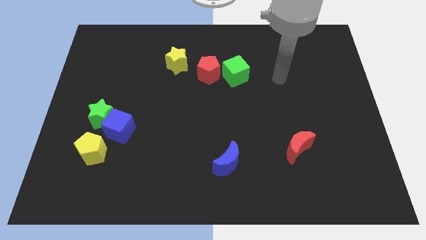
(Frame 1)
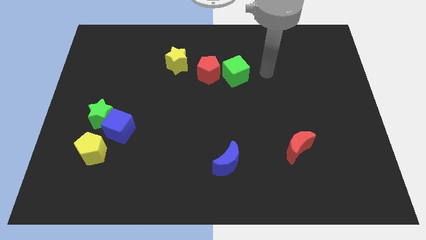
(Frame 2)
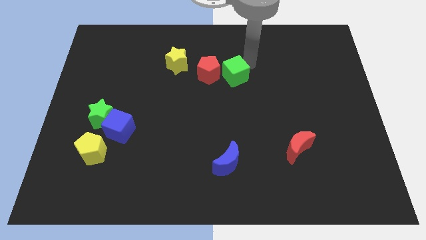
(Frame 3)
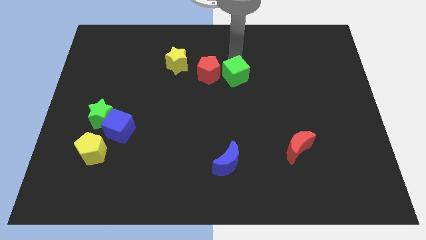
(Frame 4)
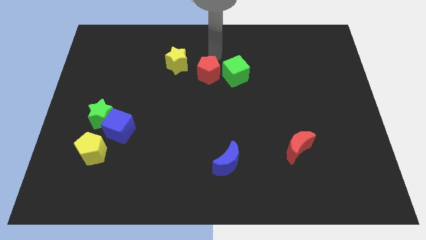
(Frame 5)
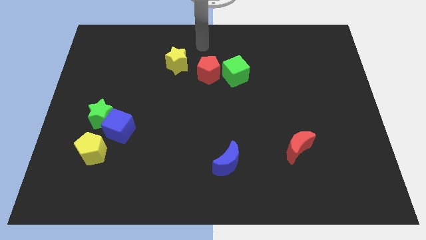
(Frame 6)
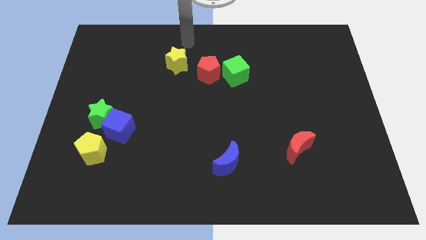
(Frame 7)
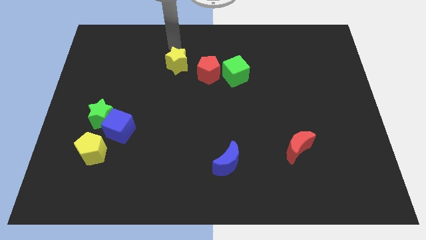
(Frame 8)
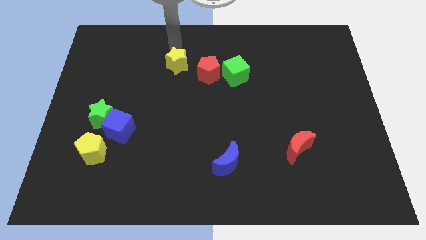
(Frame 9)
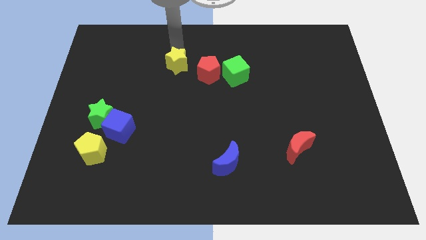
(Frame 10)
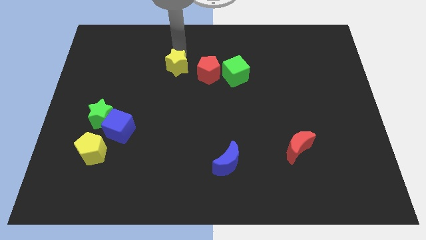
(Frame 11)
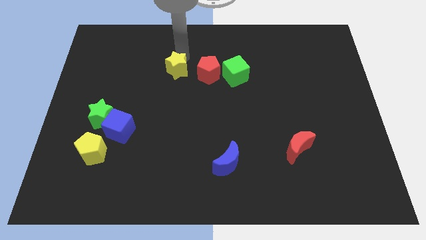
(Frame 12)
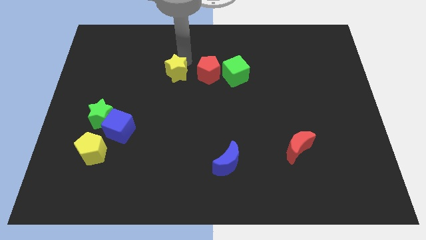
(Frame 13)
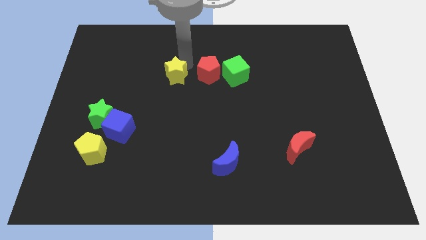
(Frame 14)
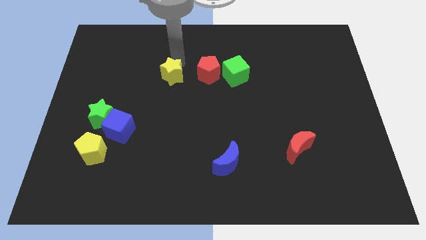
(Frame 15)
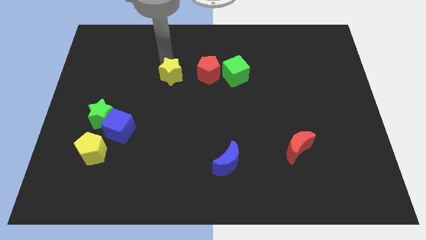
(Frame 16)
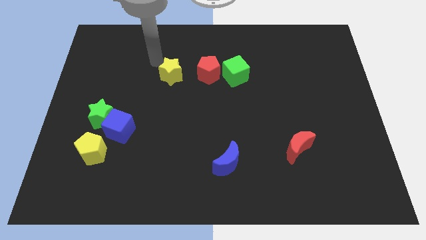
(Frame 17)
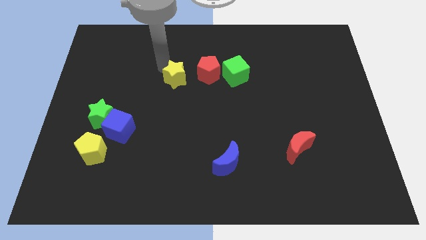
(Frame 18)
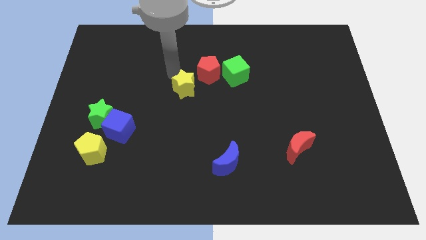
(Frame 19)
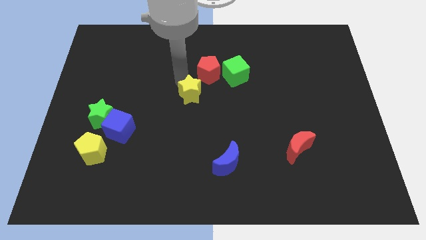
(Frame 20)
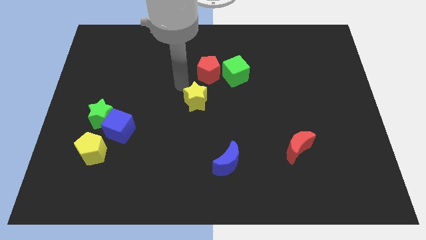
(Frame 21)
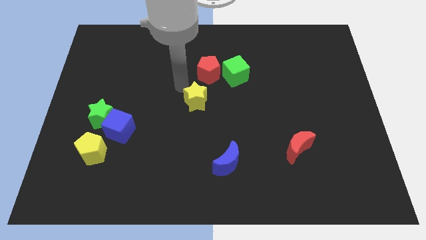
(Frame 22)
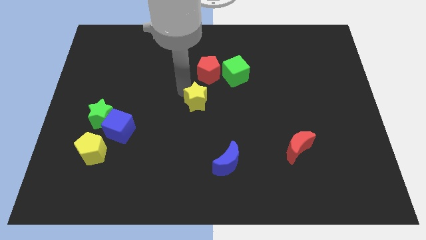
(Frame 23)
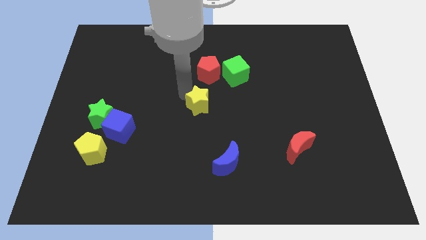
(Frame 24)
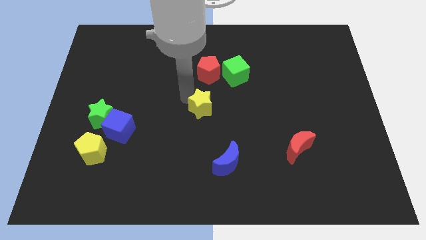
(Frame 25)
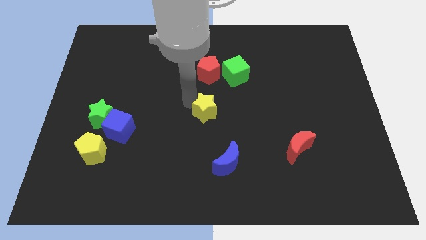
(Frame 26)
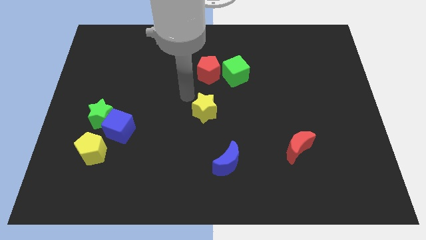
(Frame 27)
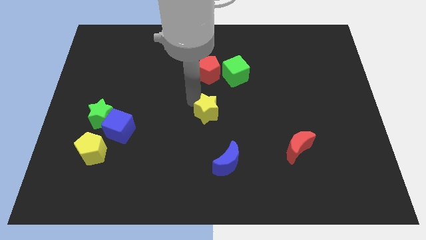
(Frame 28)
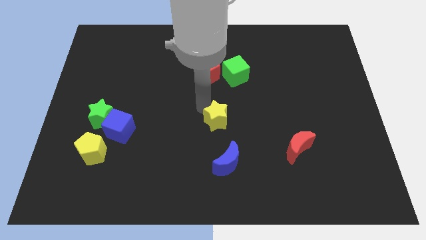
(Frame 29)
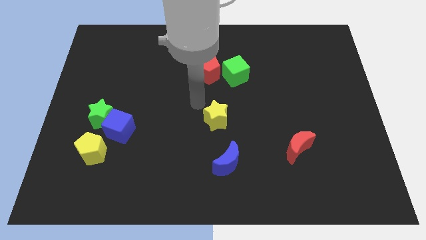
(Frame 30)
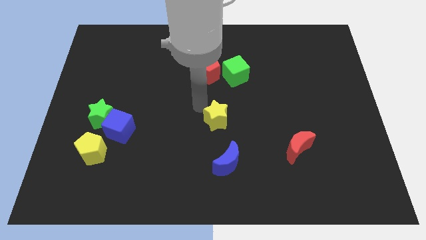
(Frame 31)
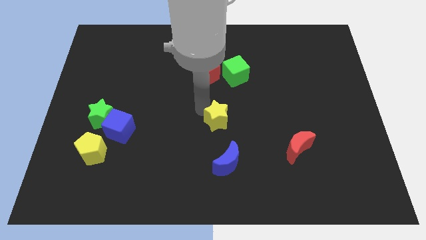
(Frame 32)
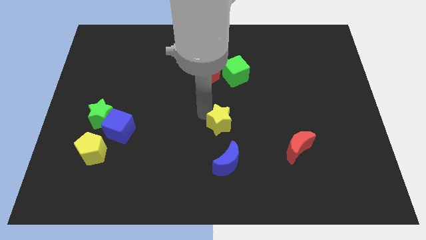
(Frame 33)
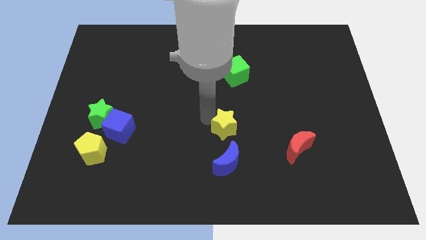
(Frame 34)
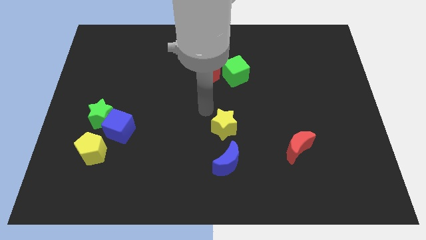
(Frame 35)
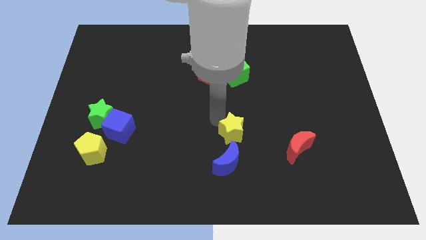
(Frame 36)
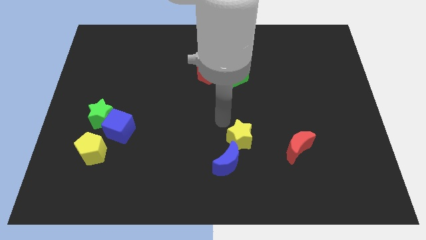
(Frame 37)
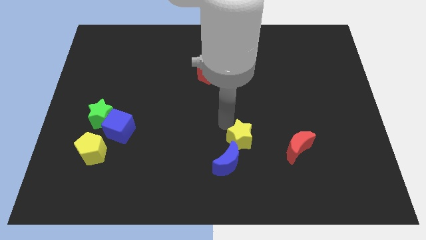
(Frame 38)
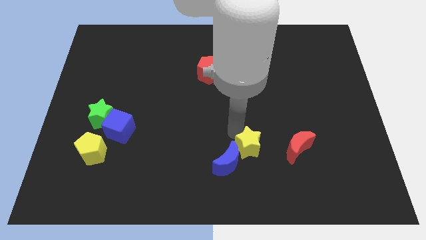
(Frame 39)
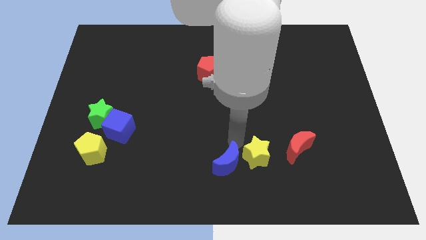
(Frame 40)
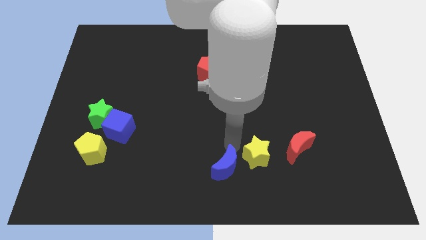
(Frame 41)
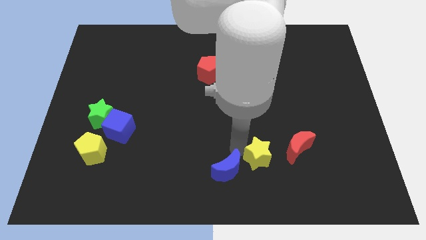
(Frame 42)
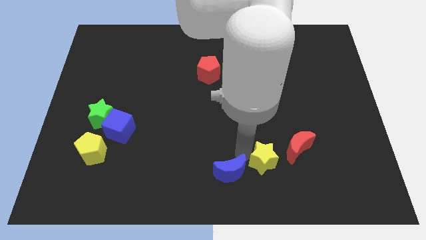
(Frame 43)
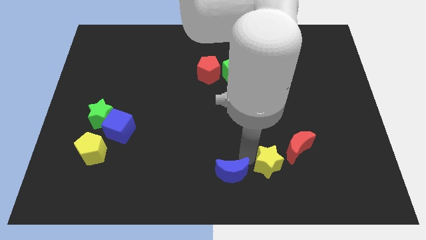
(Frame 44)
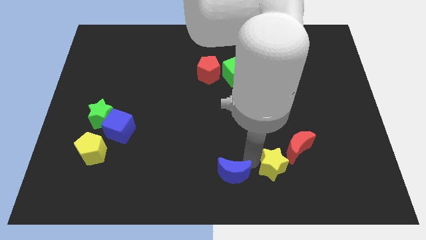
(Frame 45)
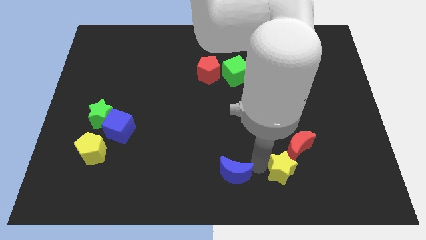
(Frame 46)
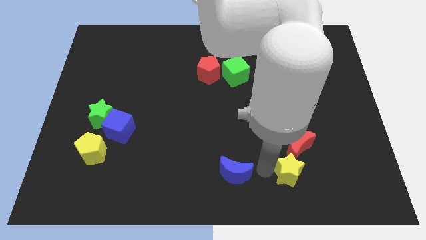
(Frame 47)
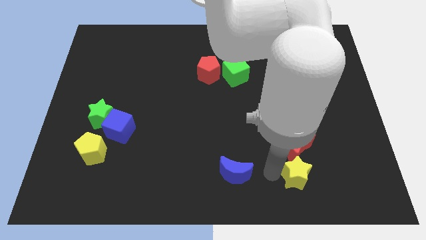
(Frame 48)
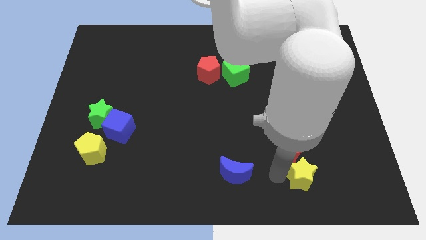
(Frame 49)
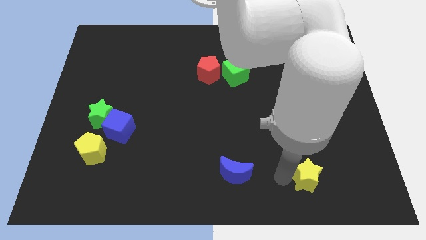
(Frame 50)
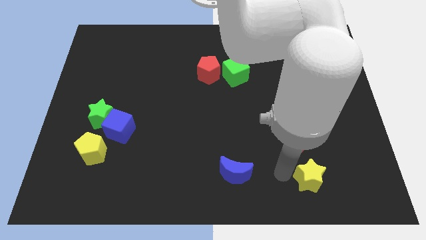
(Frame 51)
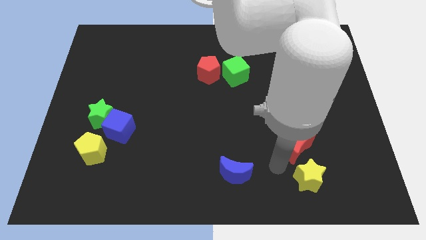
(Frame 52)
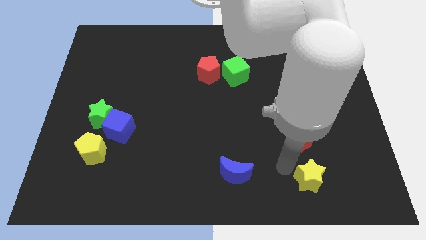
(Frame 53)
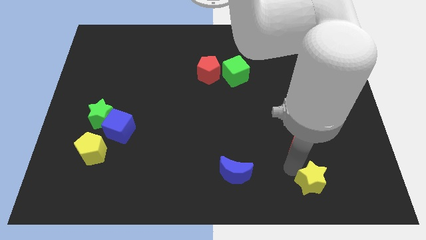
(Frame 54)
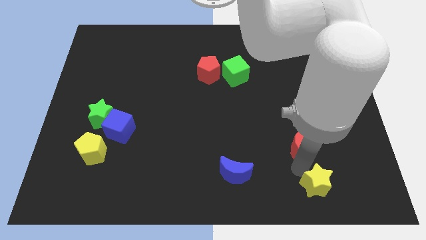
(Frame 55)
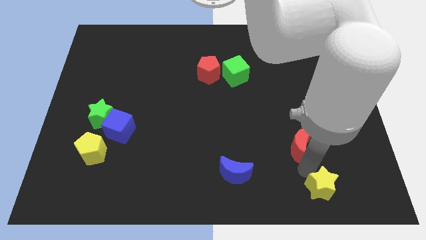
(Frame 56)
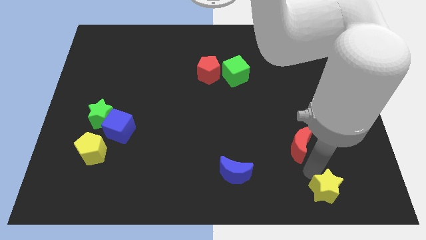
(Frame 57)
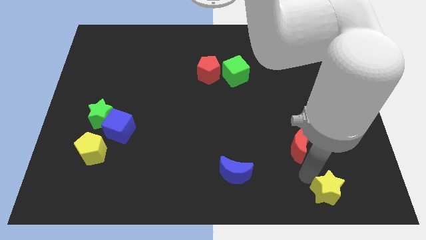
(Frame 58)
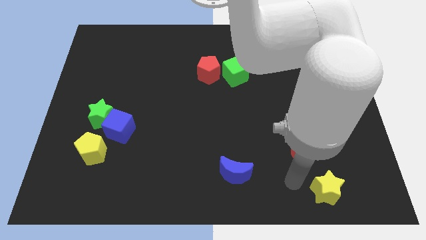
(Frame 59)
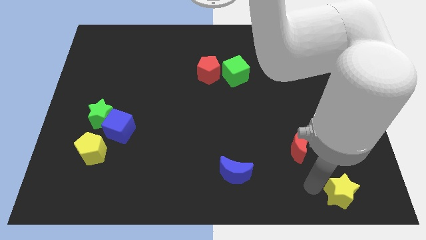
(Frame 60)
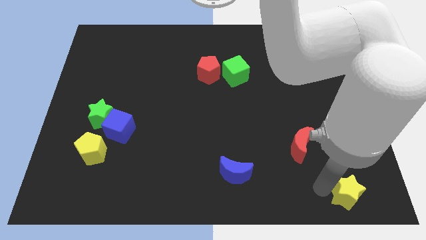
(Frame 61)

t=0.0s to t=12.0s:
slide the yellow star to the bottom right of the board

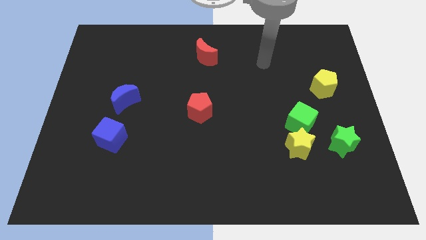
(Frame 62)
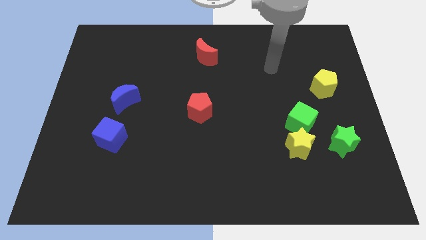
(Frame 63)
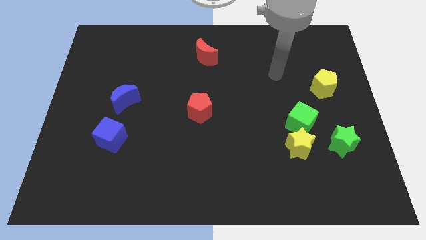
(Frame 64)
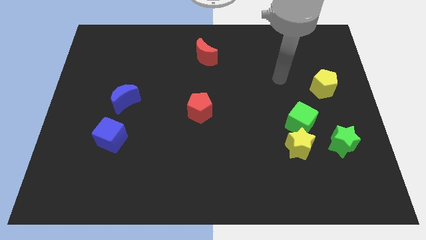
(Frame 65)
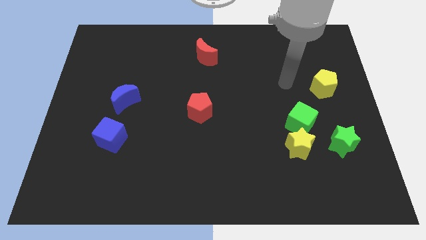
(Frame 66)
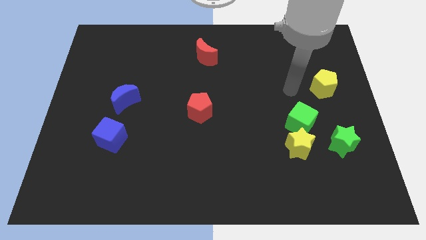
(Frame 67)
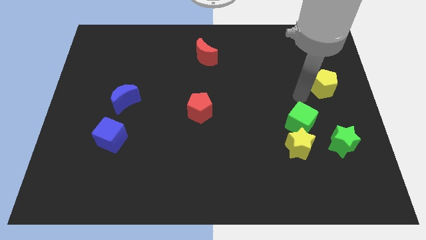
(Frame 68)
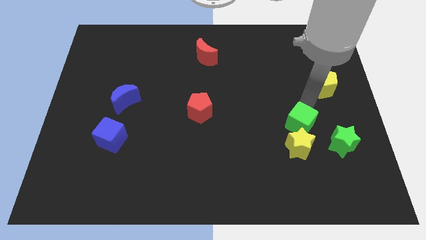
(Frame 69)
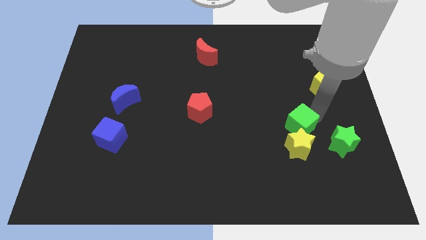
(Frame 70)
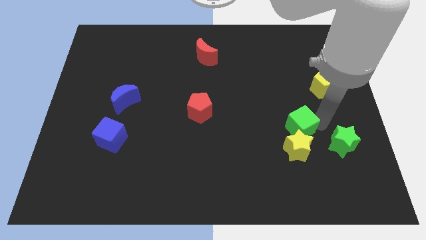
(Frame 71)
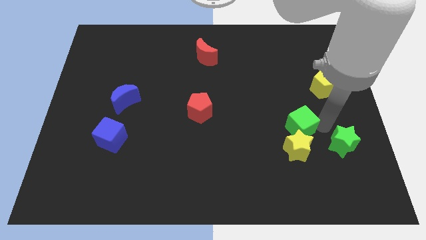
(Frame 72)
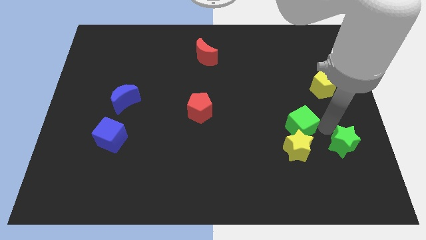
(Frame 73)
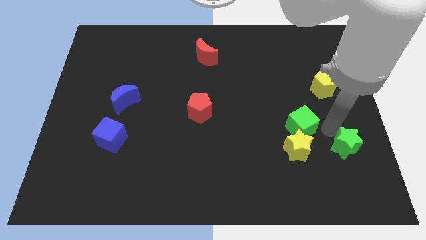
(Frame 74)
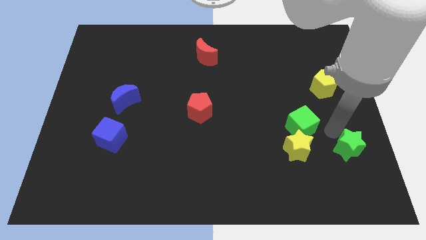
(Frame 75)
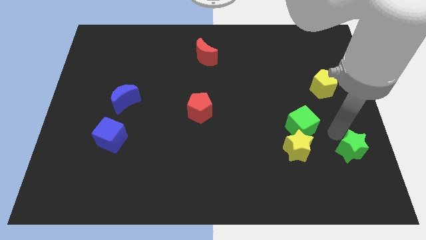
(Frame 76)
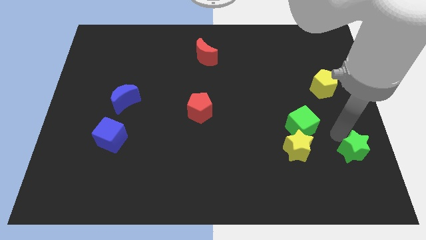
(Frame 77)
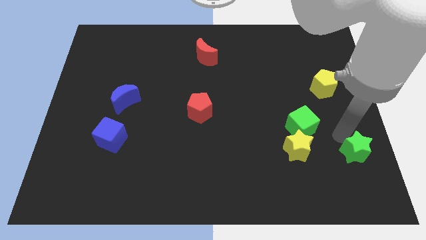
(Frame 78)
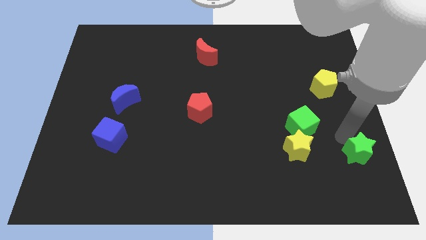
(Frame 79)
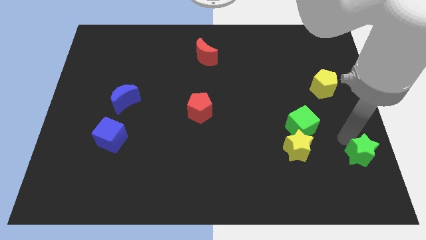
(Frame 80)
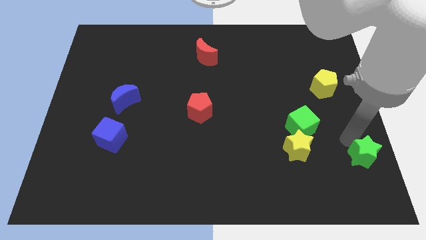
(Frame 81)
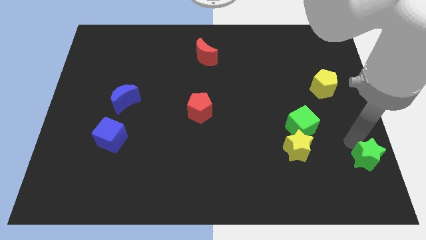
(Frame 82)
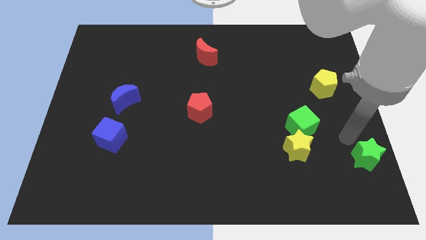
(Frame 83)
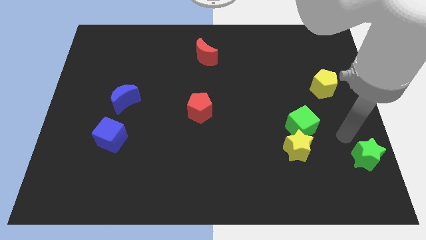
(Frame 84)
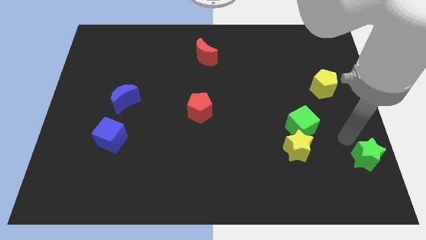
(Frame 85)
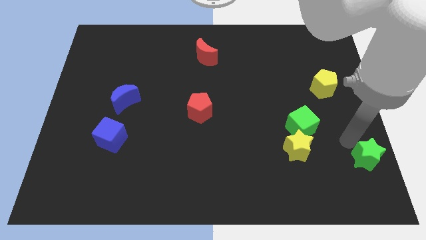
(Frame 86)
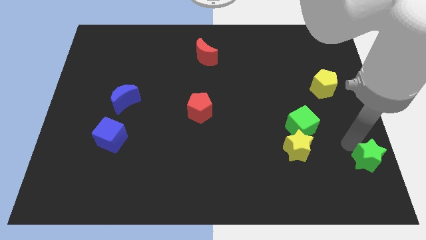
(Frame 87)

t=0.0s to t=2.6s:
slide the green star to the bottom right
